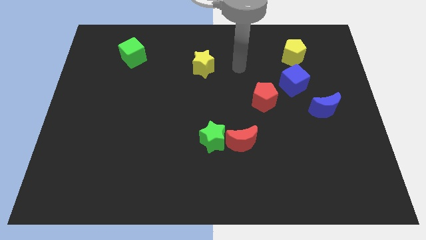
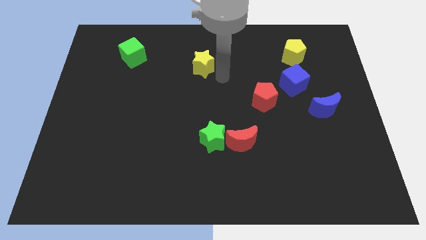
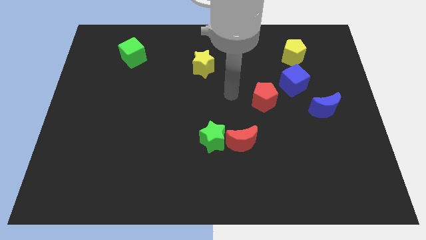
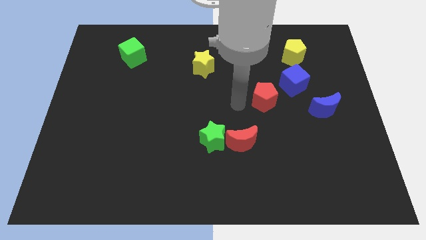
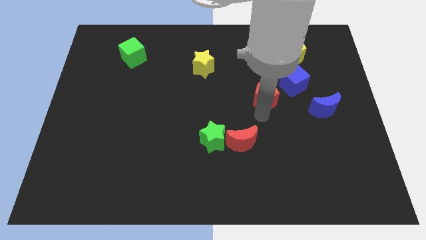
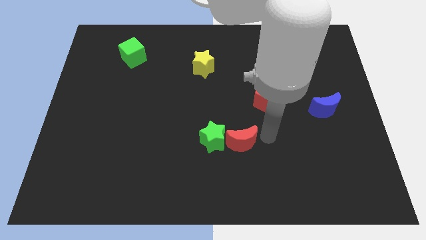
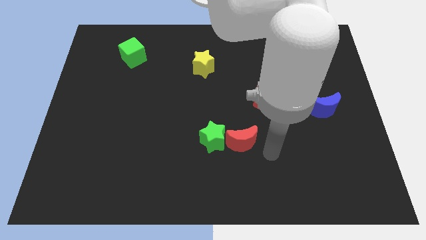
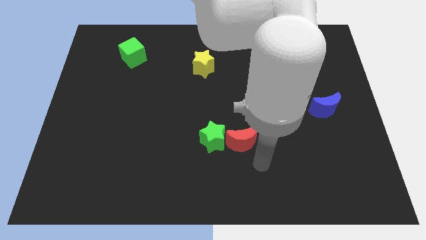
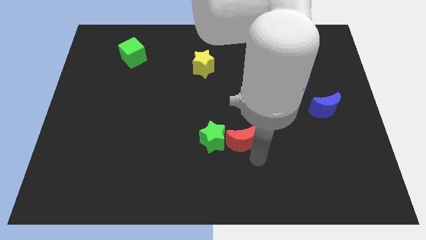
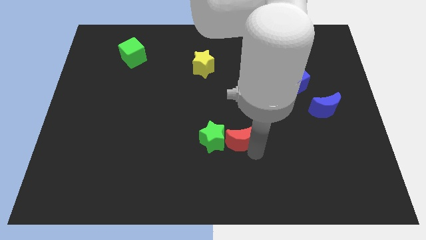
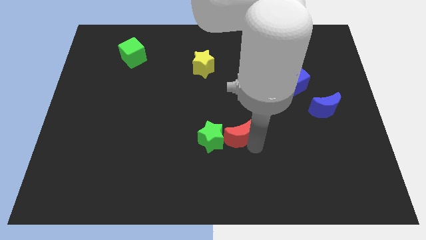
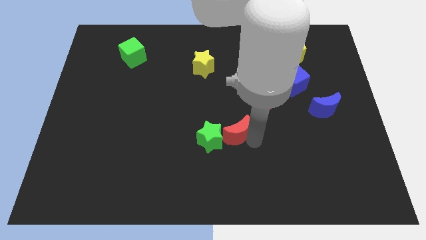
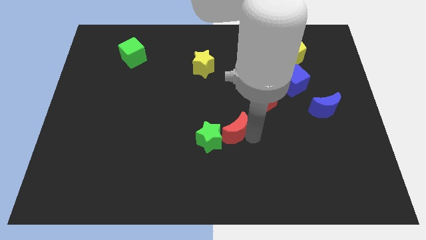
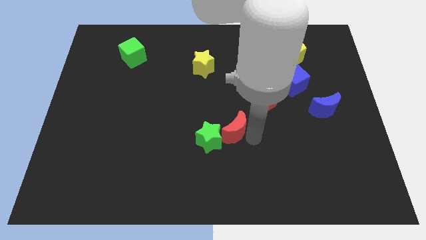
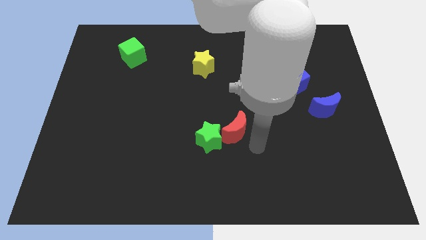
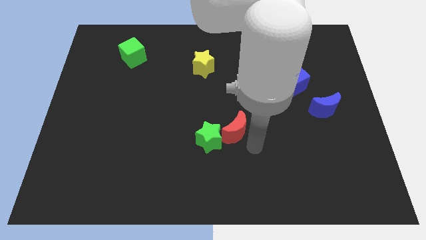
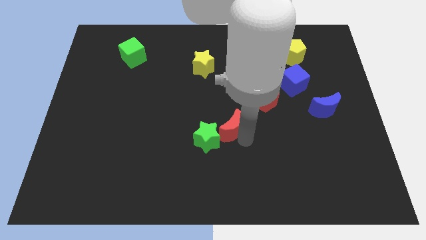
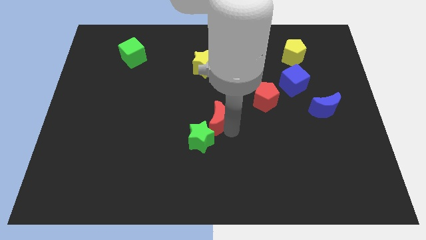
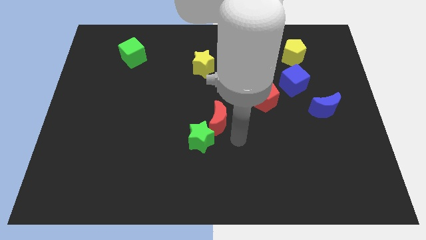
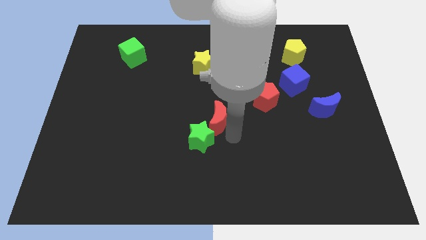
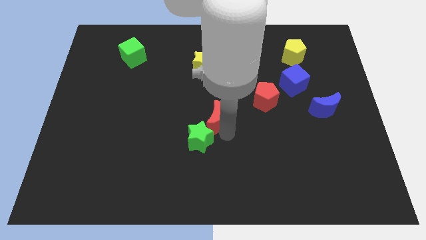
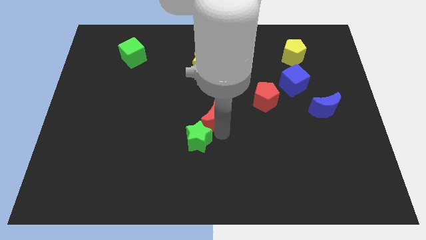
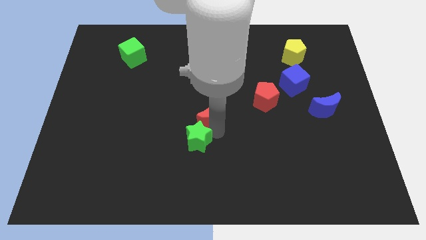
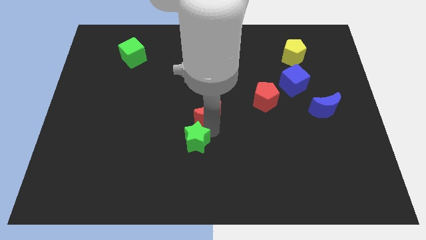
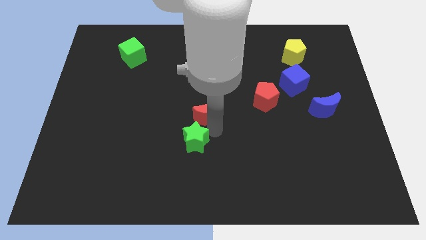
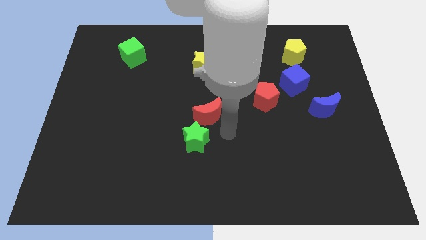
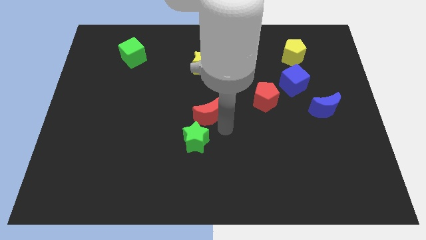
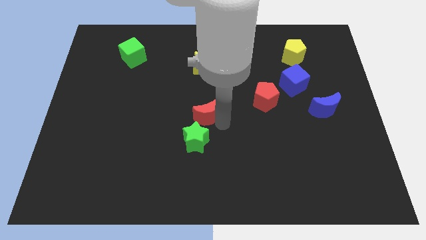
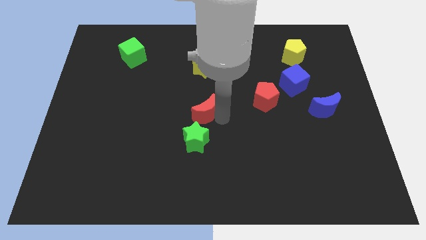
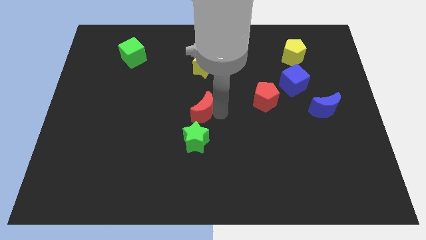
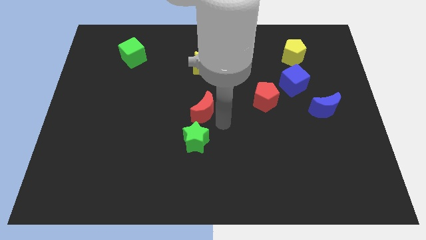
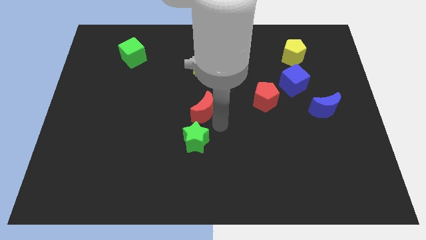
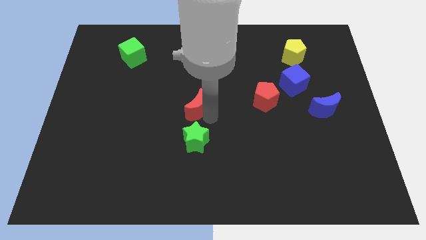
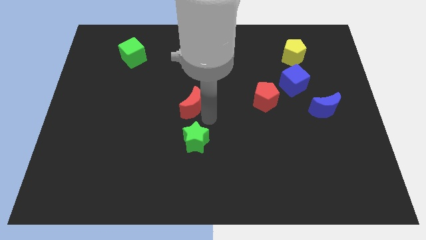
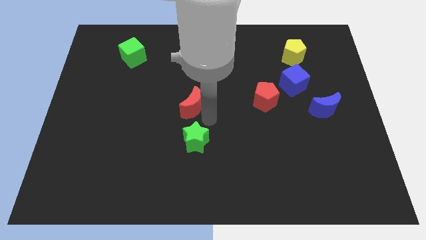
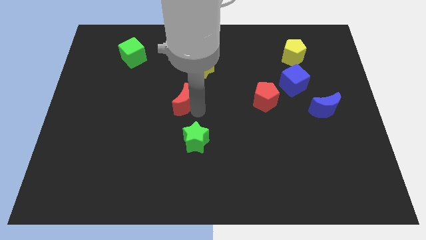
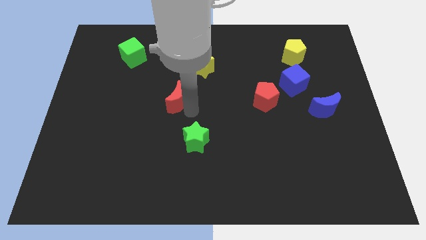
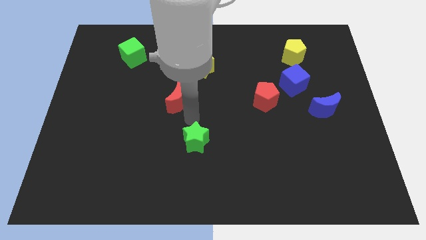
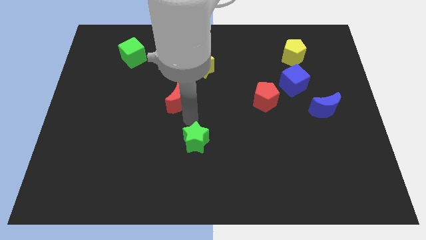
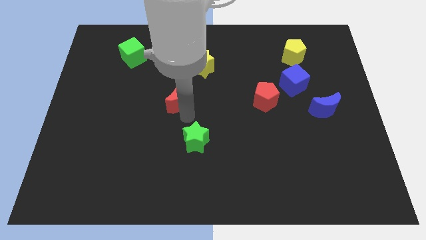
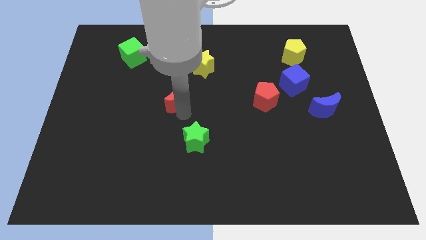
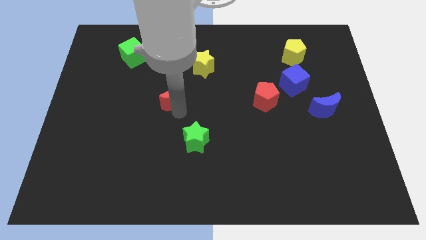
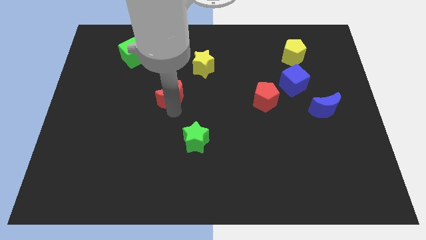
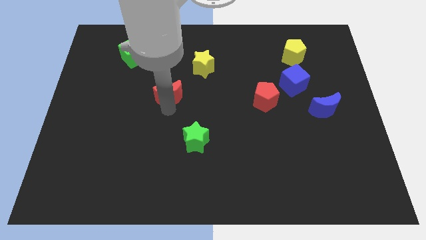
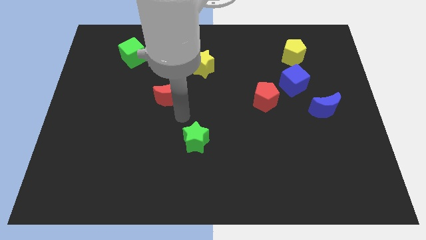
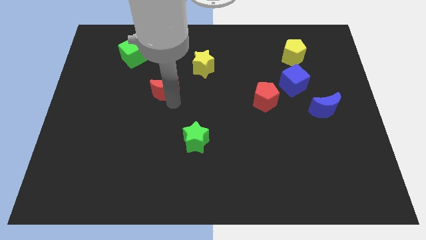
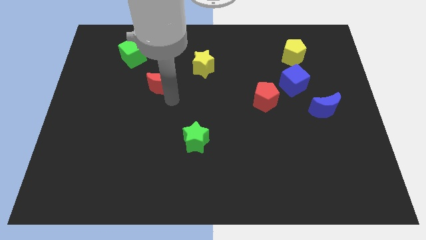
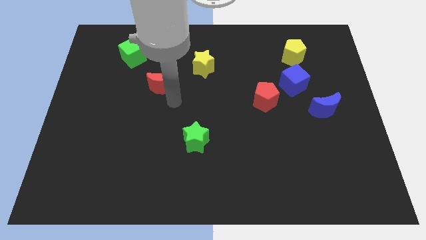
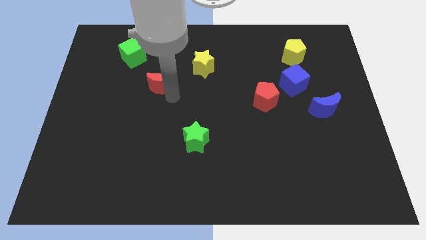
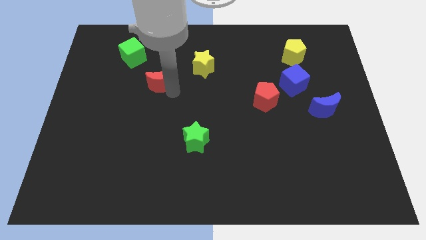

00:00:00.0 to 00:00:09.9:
slide the red moon to the bottom right of the green cube

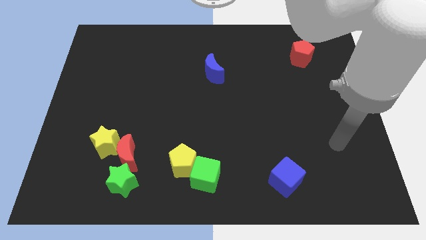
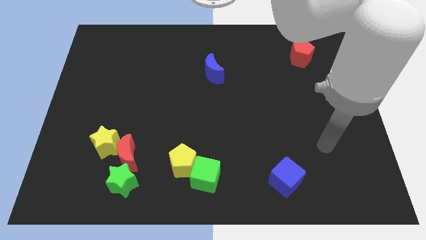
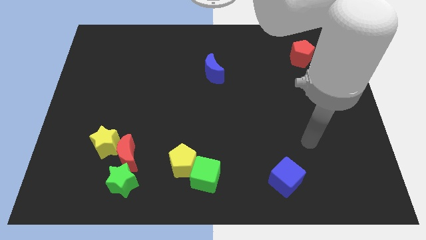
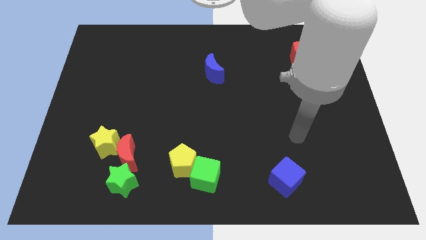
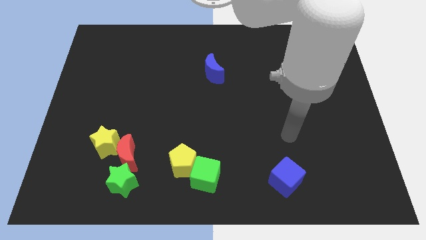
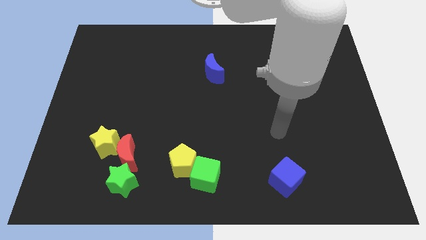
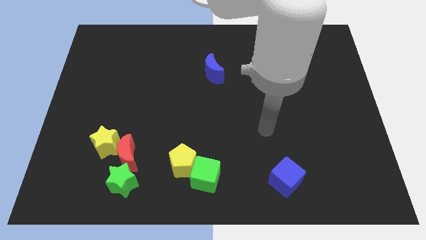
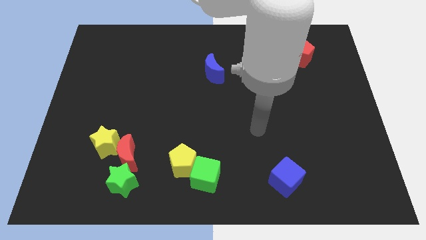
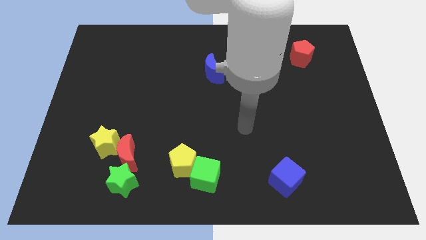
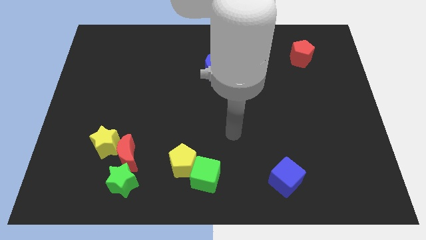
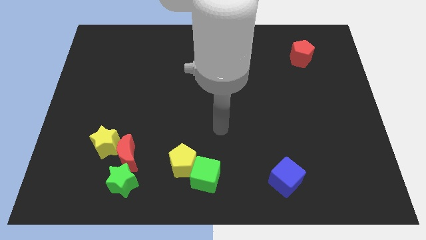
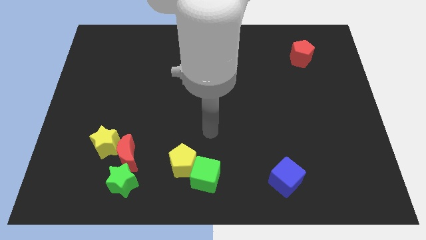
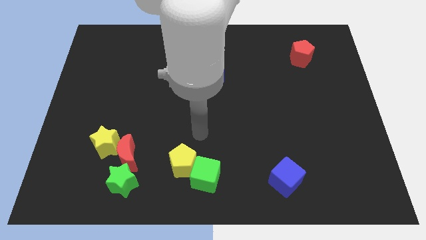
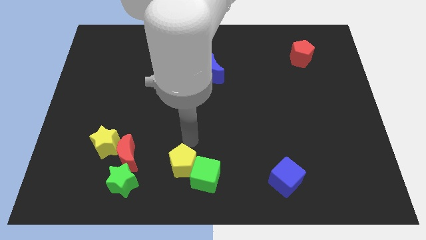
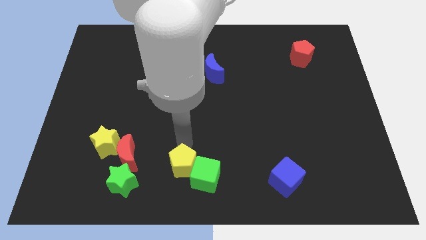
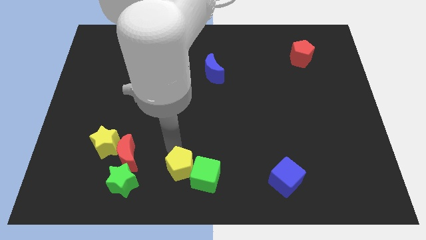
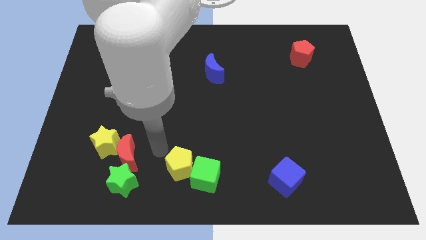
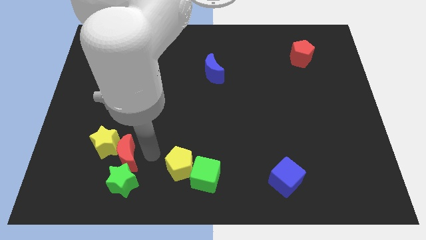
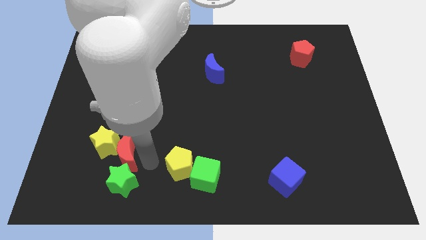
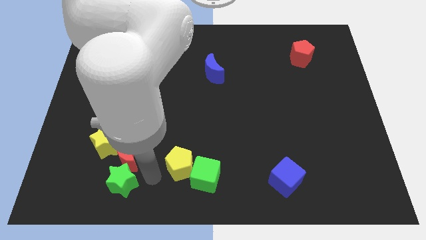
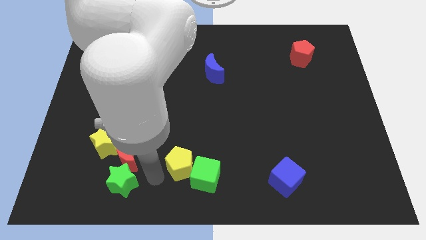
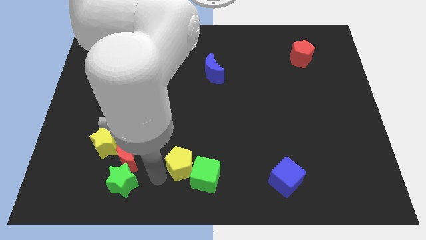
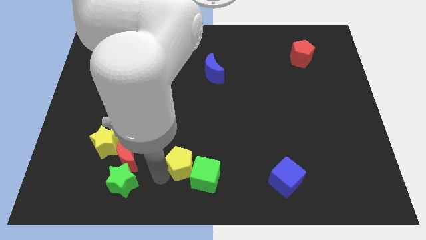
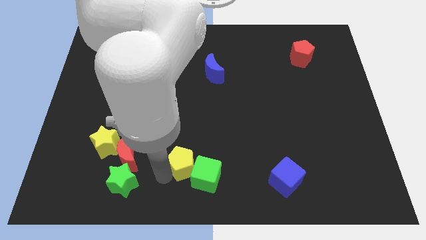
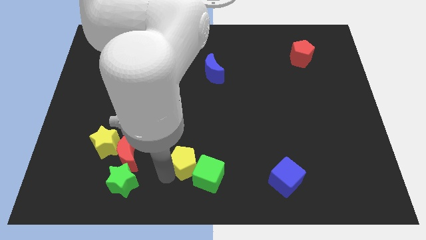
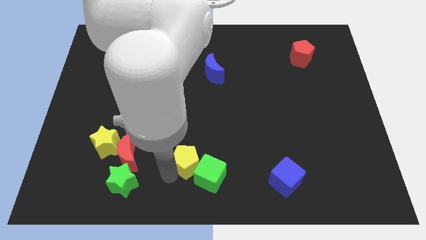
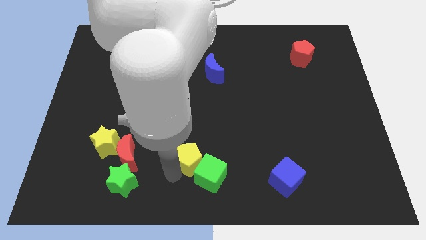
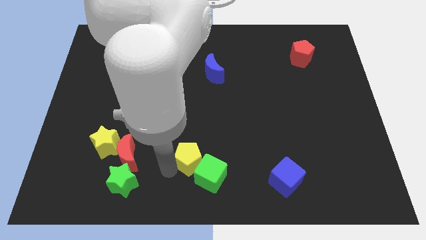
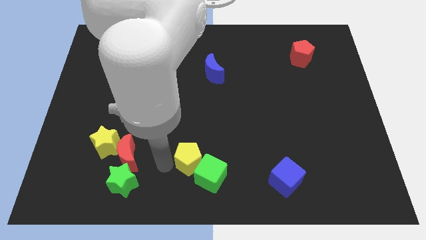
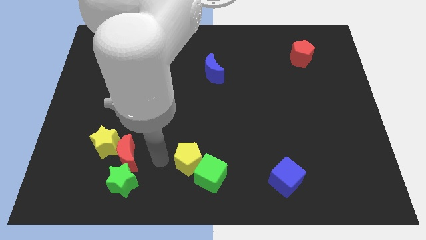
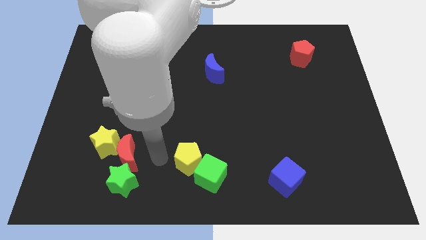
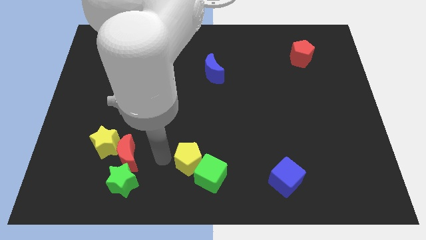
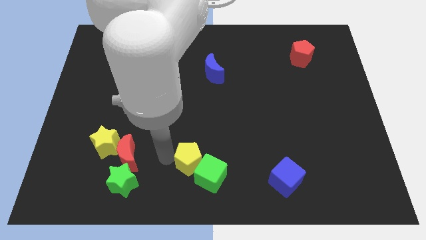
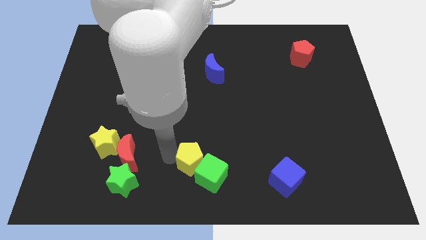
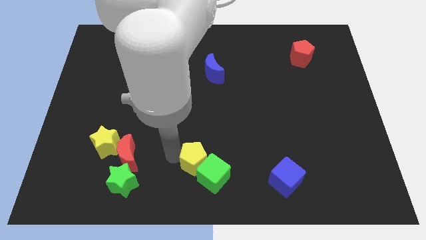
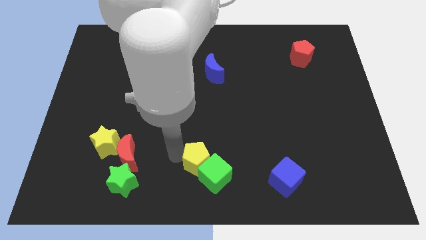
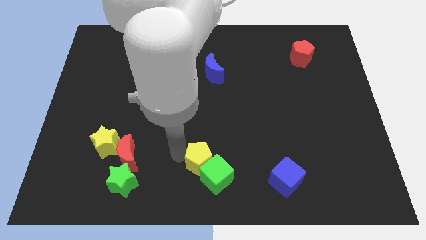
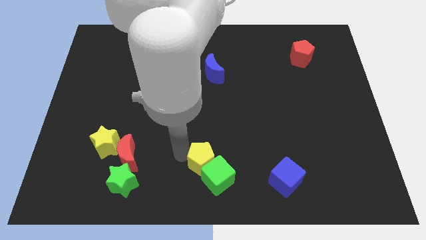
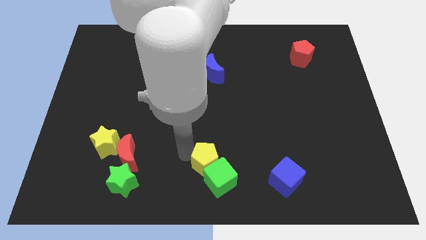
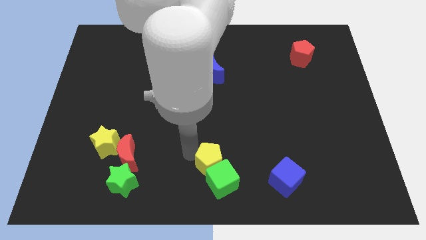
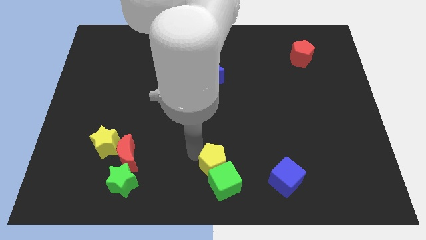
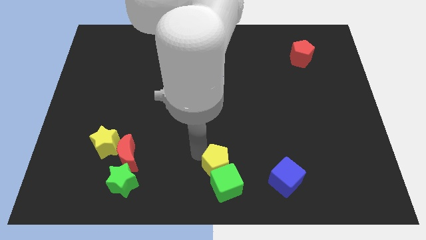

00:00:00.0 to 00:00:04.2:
move the yellow pentagon to the top right of the green cube
